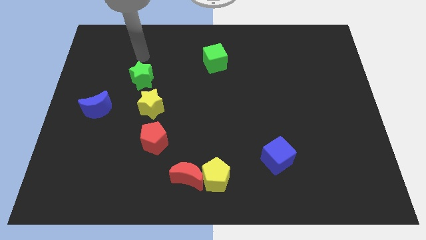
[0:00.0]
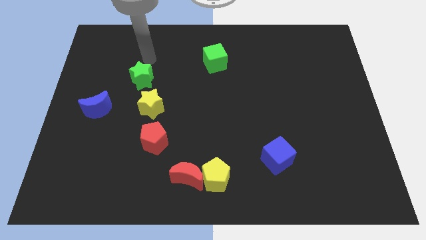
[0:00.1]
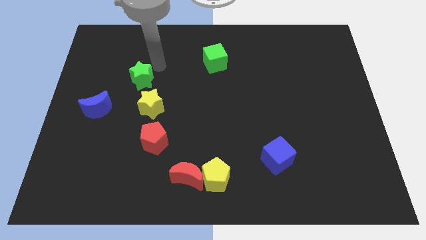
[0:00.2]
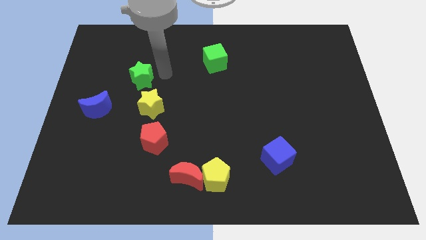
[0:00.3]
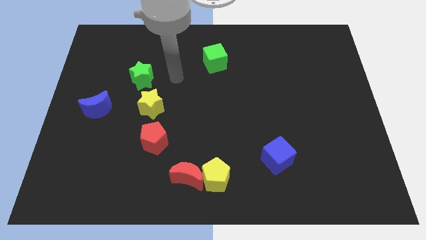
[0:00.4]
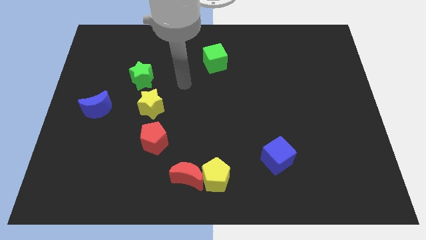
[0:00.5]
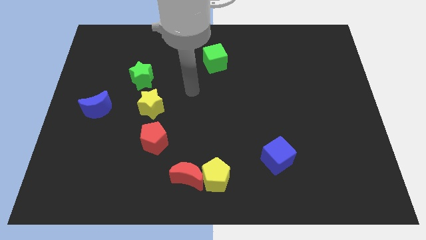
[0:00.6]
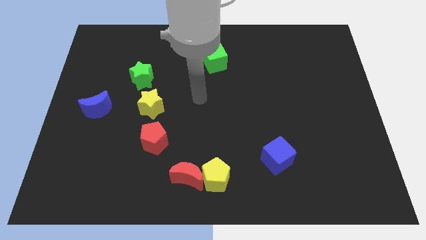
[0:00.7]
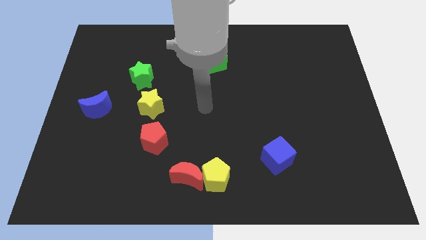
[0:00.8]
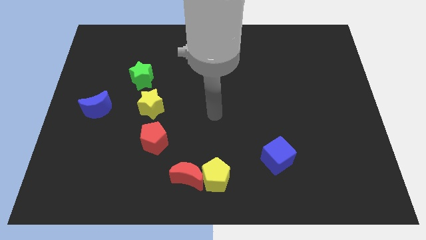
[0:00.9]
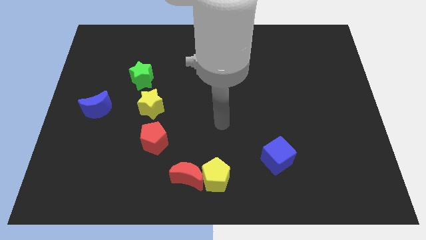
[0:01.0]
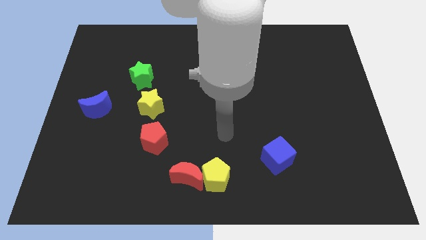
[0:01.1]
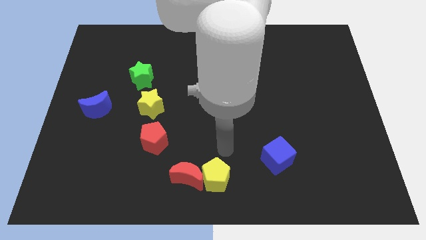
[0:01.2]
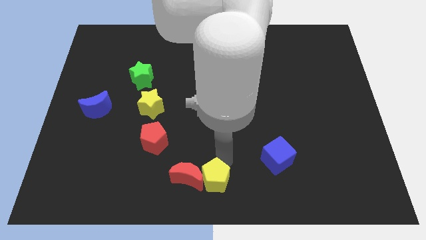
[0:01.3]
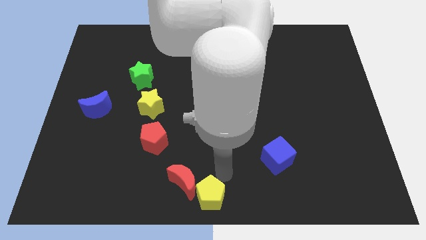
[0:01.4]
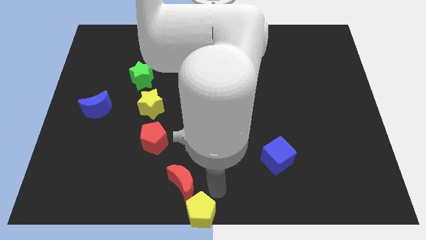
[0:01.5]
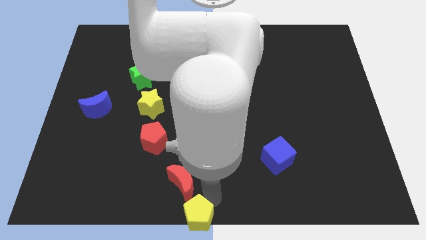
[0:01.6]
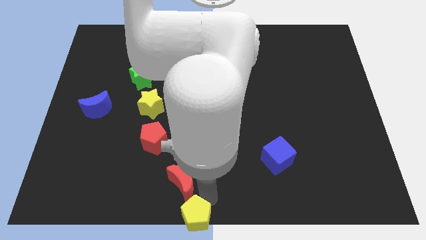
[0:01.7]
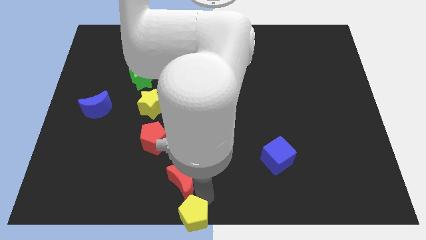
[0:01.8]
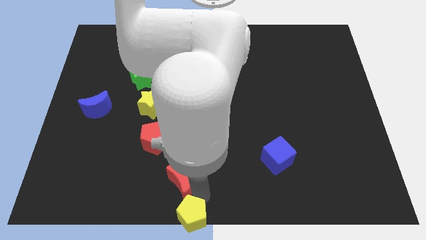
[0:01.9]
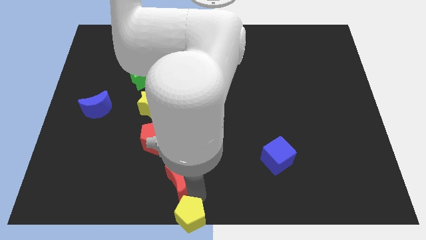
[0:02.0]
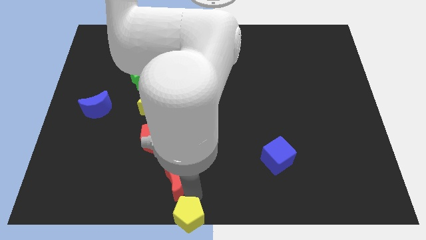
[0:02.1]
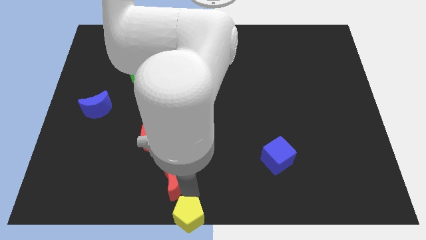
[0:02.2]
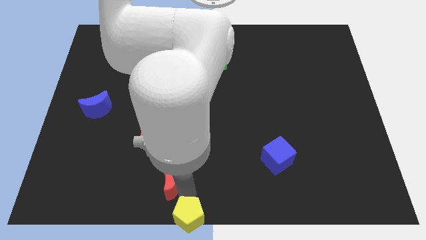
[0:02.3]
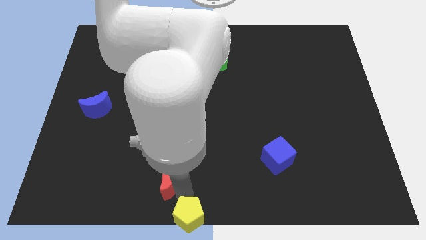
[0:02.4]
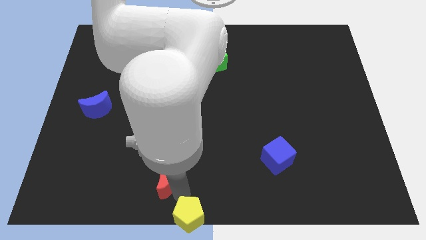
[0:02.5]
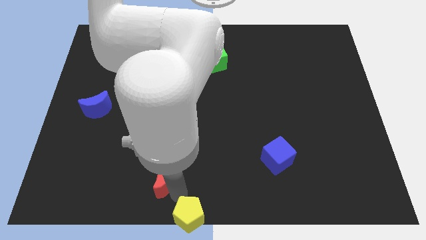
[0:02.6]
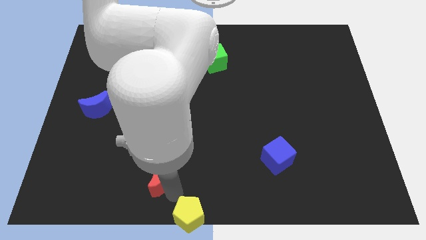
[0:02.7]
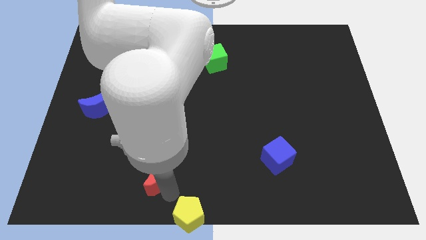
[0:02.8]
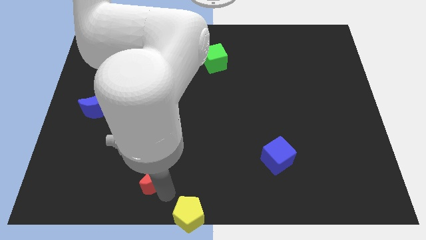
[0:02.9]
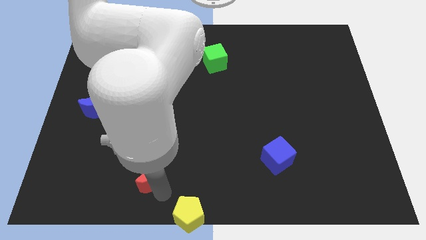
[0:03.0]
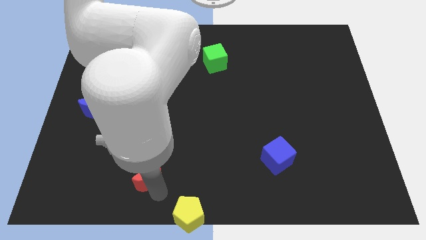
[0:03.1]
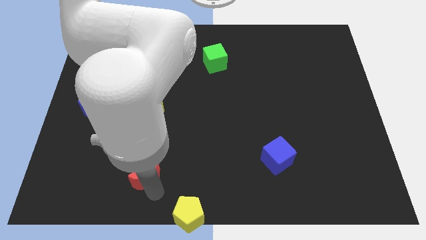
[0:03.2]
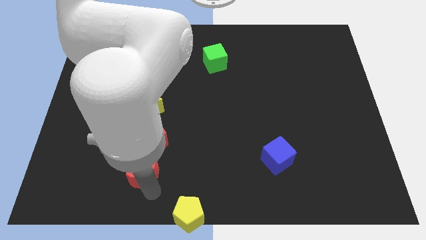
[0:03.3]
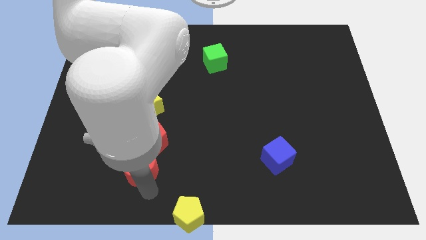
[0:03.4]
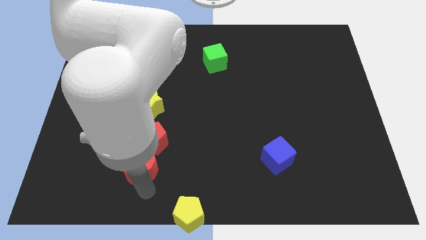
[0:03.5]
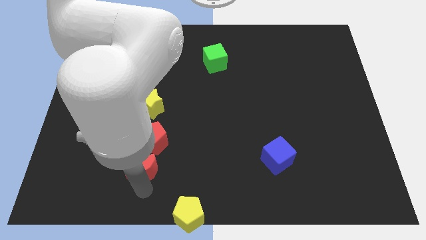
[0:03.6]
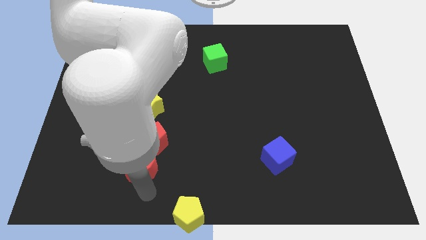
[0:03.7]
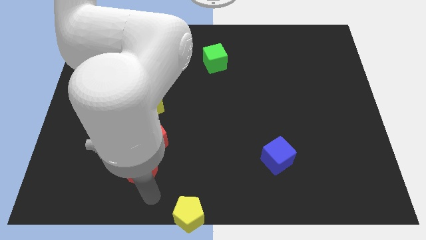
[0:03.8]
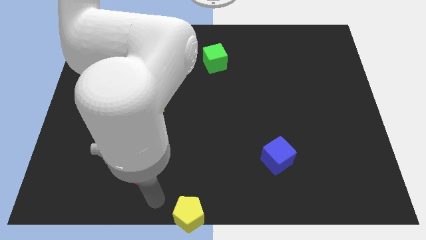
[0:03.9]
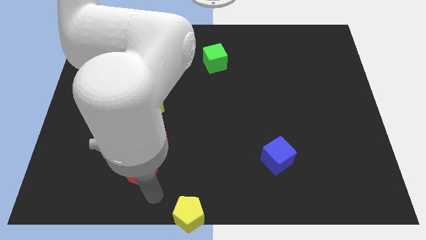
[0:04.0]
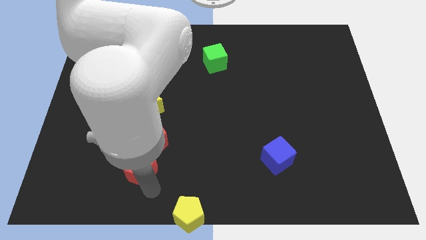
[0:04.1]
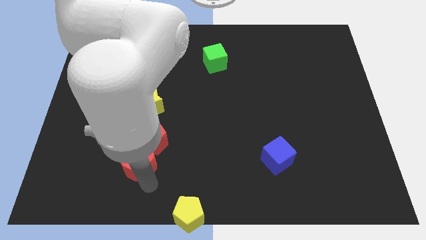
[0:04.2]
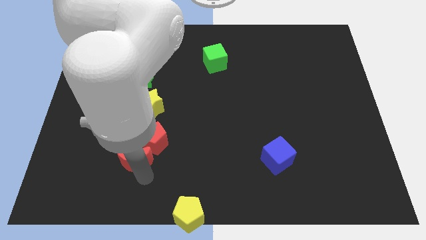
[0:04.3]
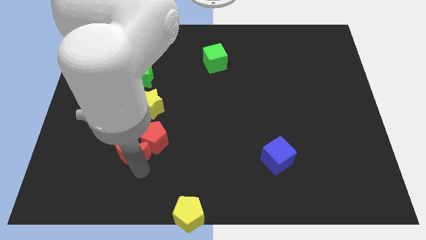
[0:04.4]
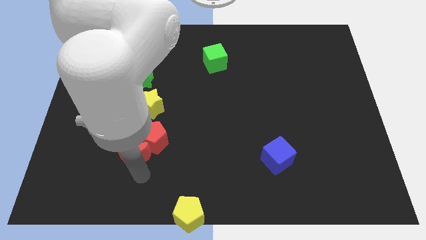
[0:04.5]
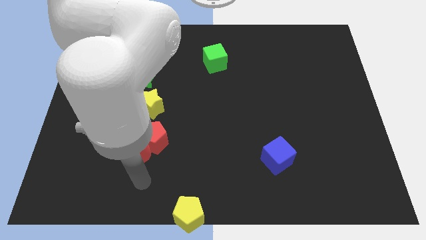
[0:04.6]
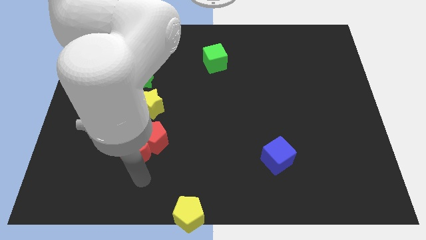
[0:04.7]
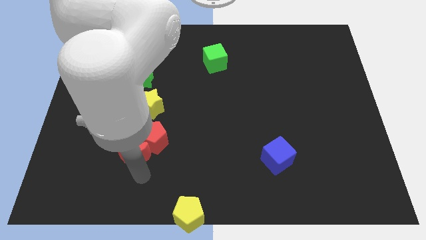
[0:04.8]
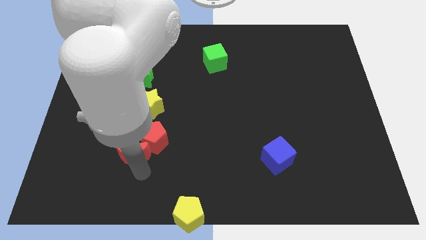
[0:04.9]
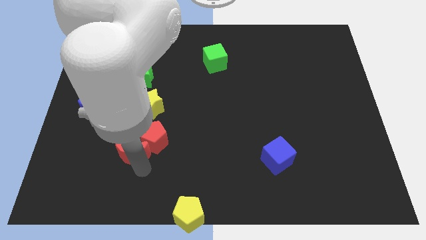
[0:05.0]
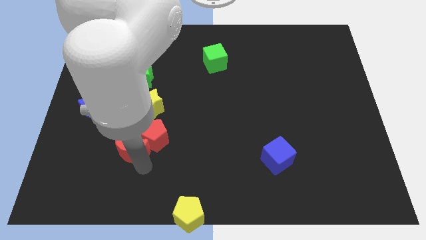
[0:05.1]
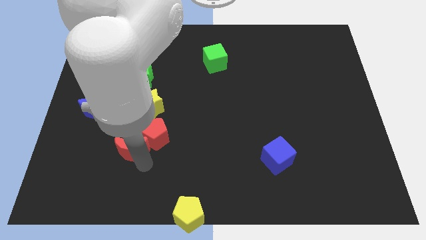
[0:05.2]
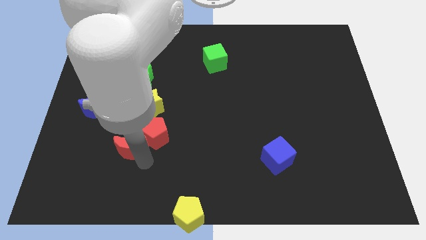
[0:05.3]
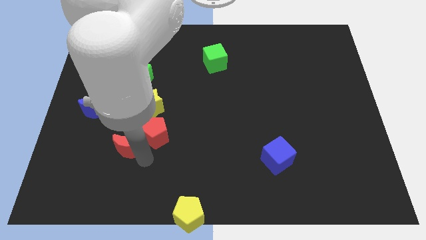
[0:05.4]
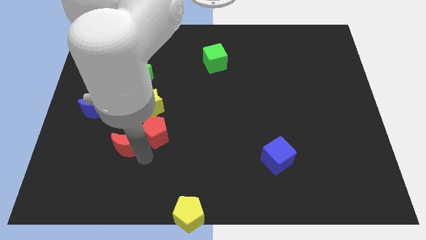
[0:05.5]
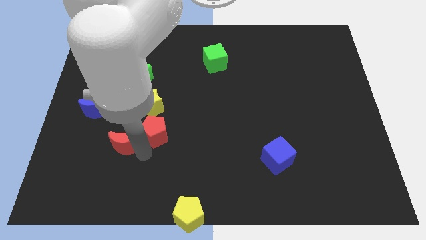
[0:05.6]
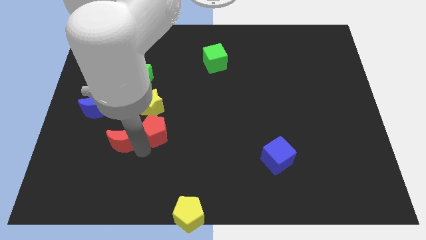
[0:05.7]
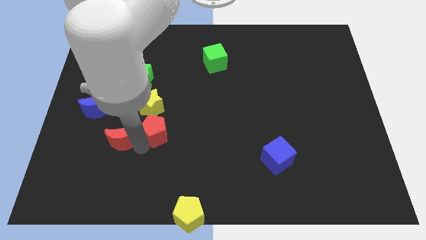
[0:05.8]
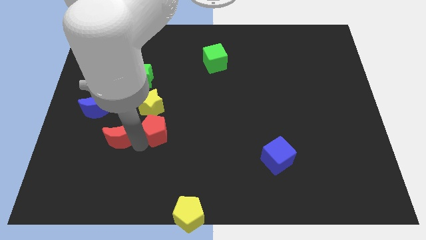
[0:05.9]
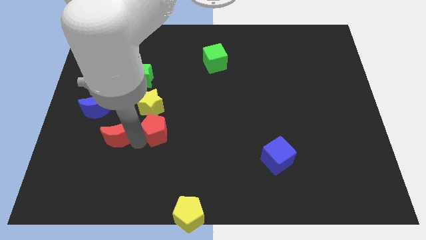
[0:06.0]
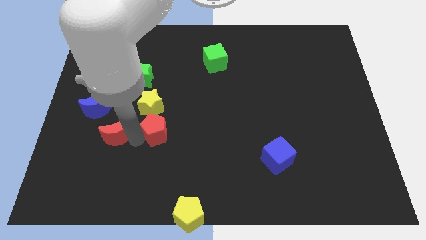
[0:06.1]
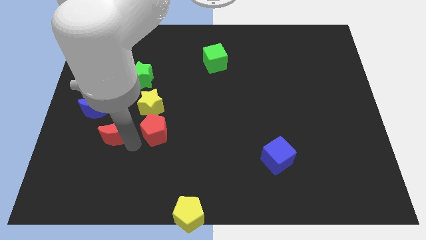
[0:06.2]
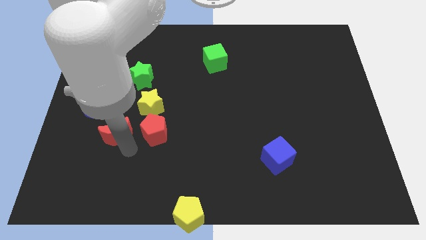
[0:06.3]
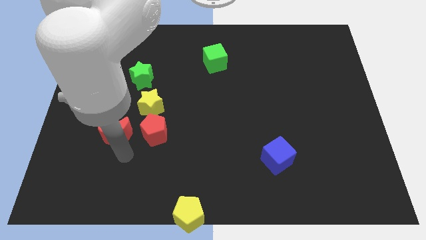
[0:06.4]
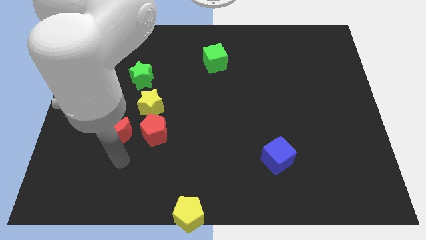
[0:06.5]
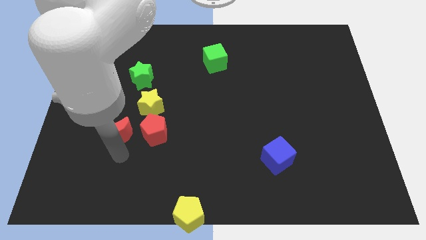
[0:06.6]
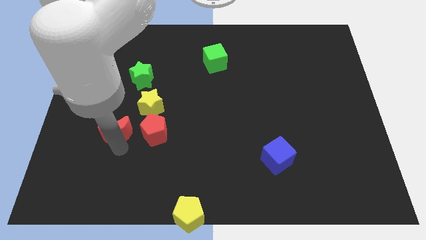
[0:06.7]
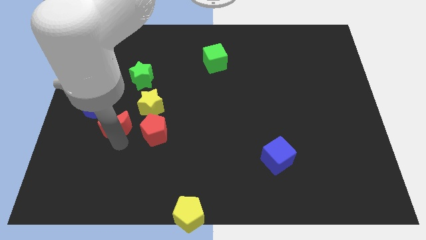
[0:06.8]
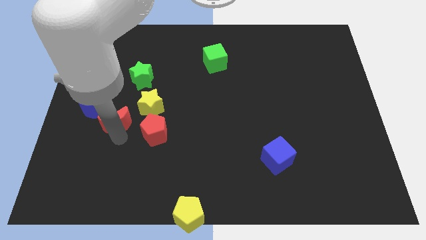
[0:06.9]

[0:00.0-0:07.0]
slide the red moon upwards and left

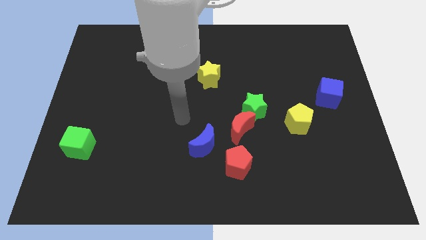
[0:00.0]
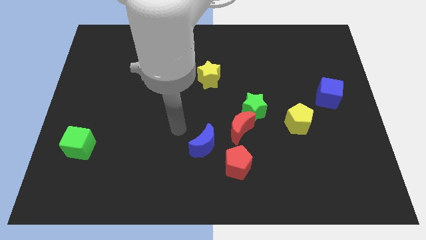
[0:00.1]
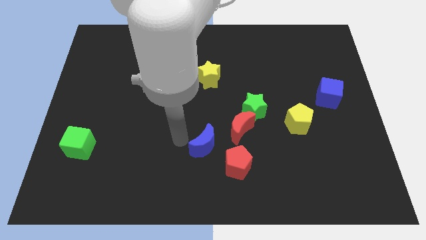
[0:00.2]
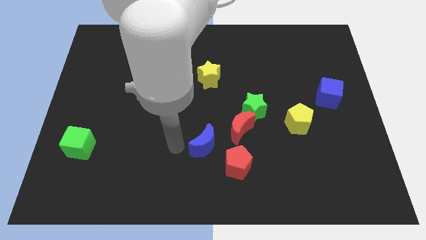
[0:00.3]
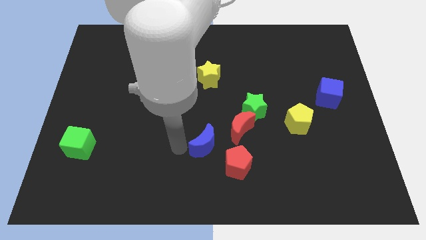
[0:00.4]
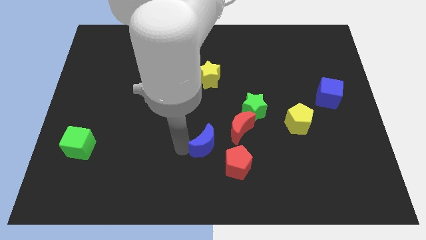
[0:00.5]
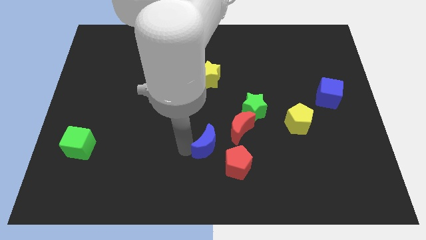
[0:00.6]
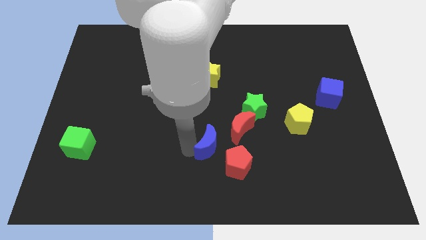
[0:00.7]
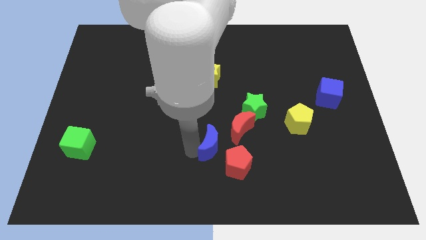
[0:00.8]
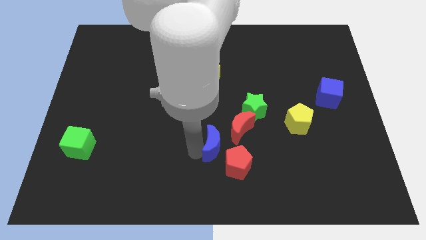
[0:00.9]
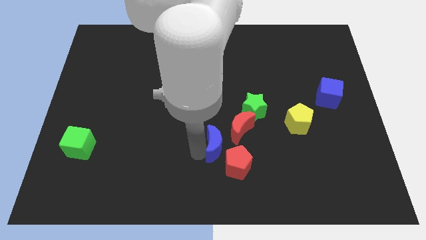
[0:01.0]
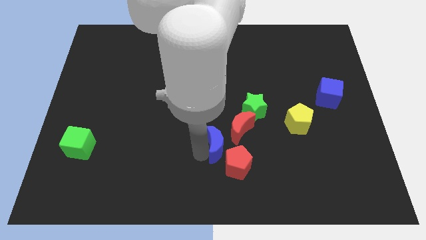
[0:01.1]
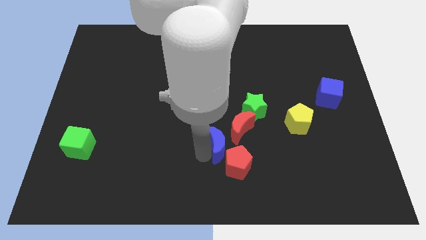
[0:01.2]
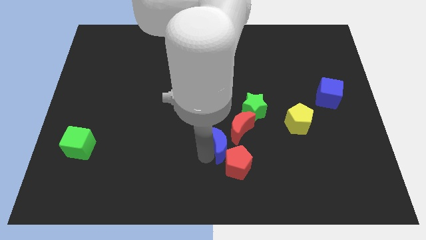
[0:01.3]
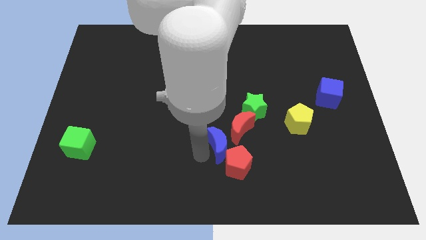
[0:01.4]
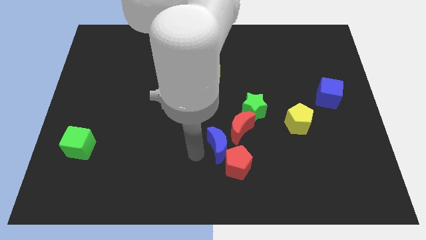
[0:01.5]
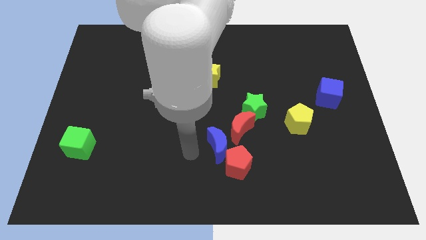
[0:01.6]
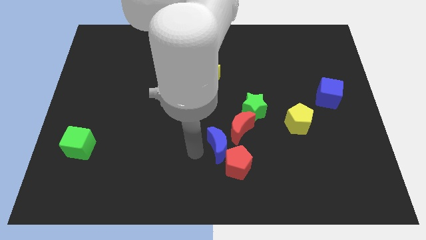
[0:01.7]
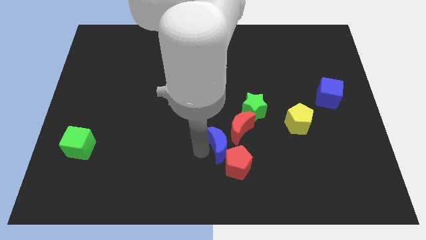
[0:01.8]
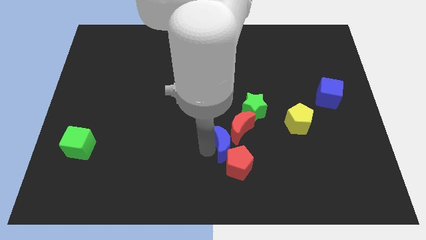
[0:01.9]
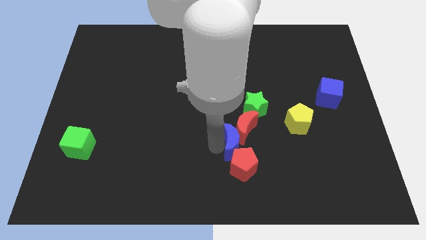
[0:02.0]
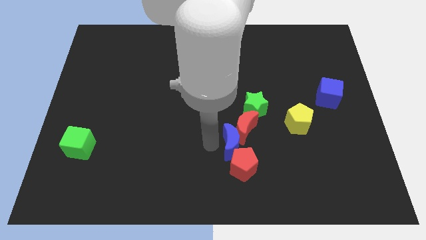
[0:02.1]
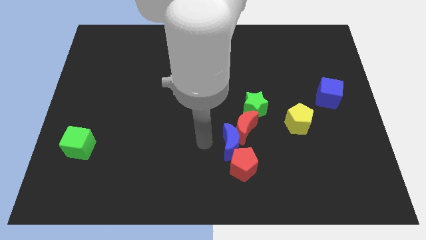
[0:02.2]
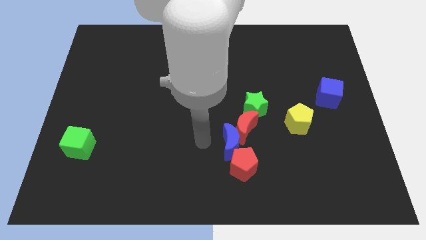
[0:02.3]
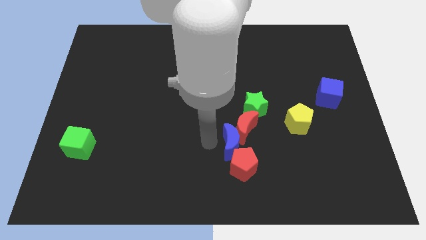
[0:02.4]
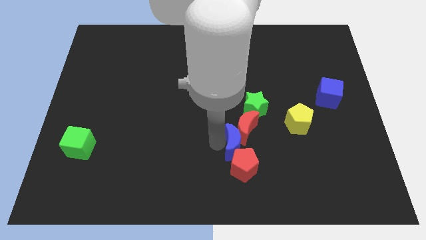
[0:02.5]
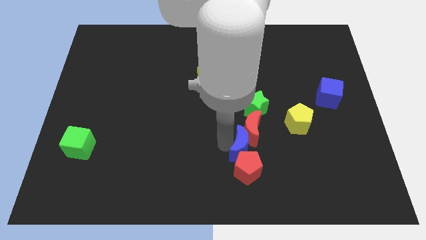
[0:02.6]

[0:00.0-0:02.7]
slide the blue moon slightly right
